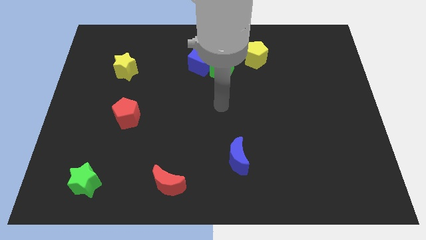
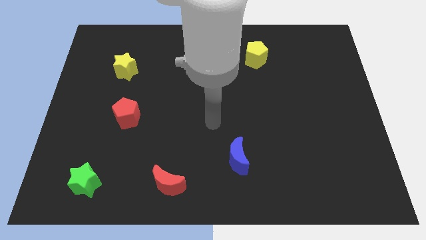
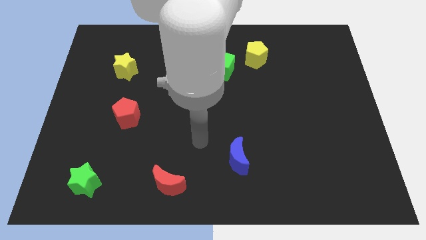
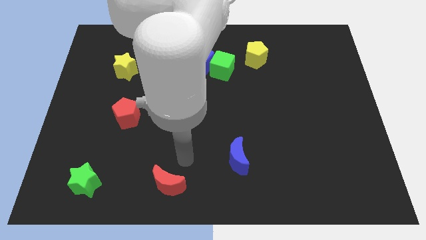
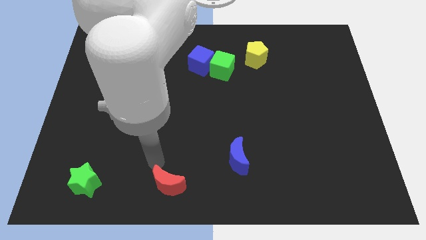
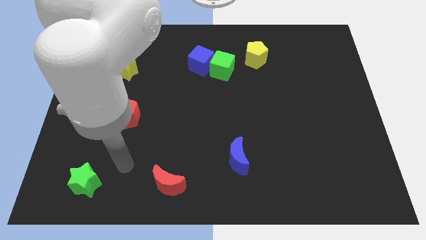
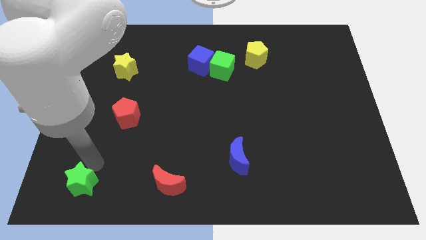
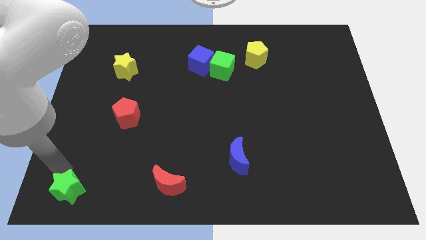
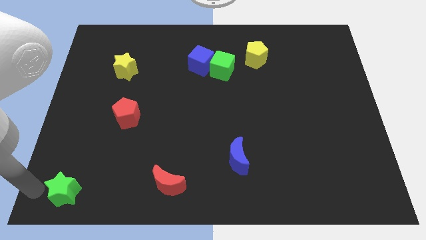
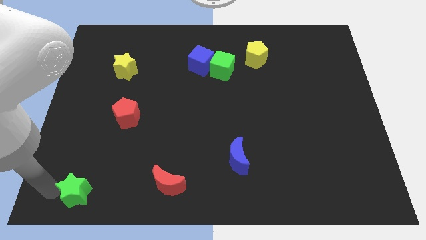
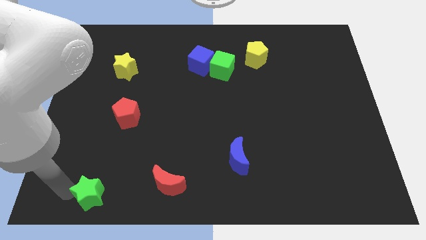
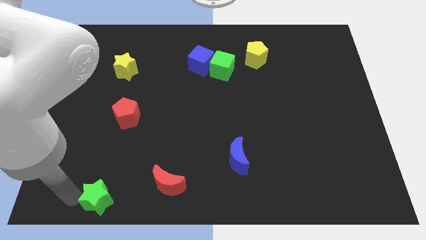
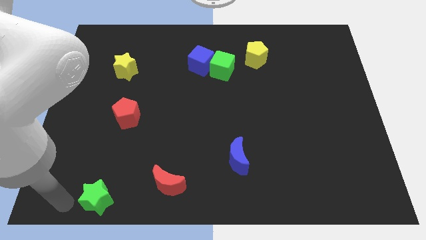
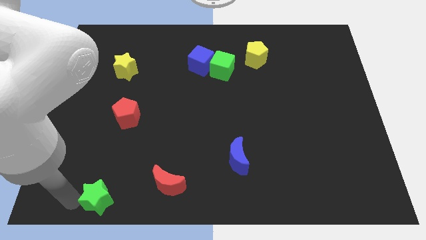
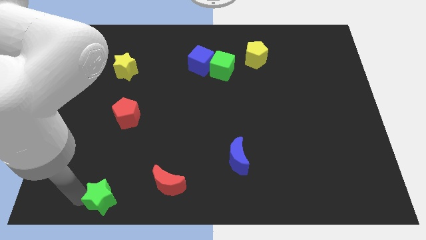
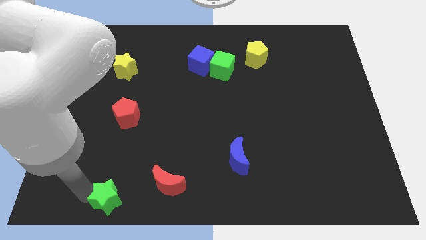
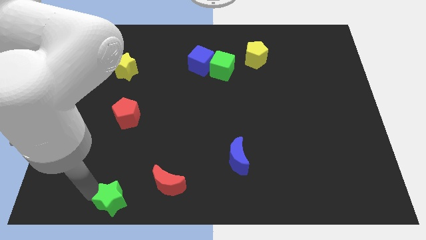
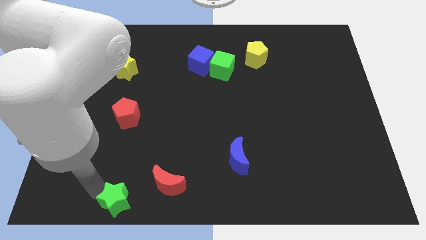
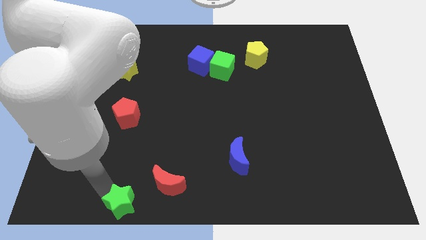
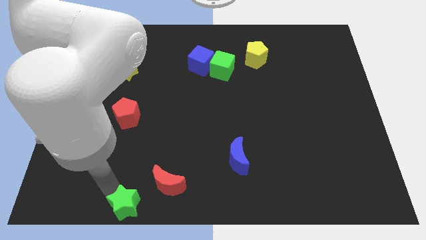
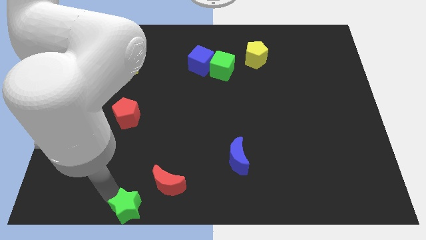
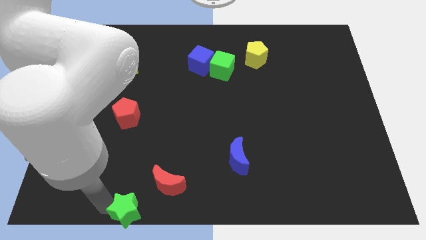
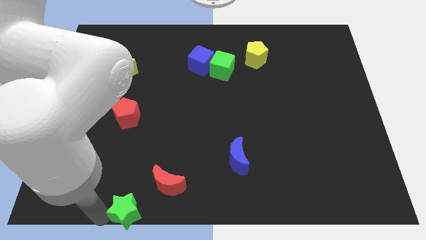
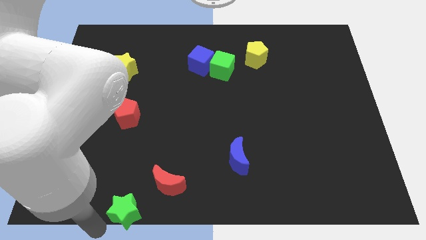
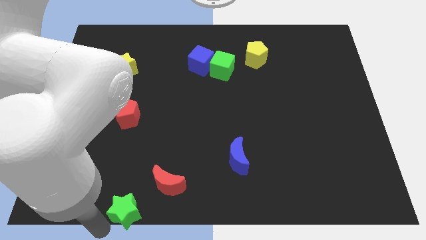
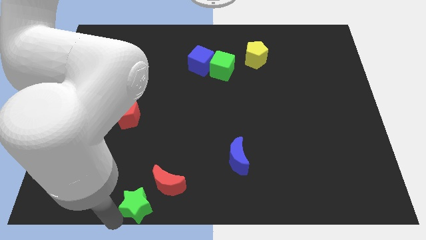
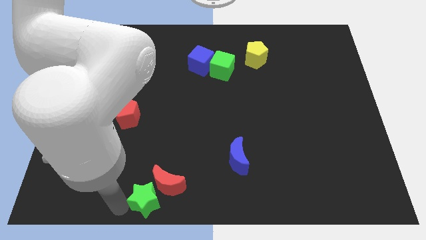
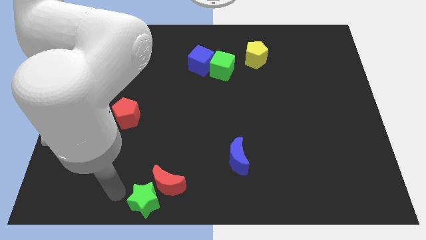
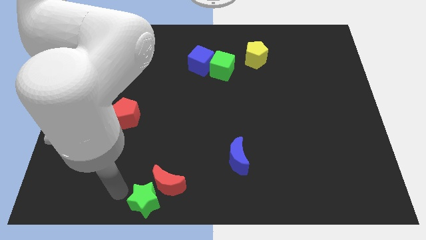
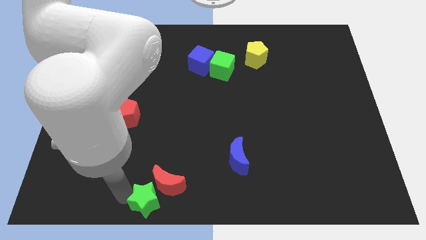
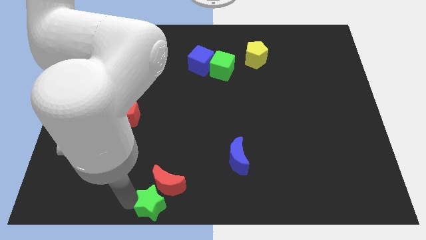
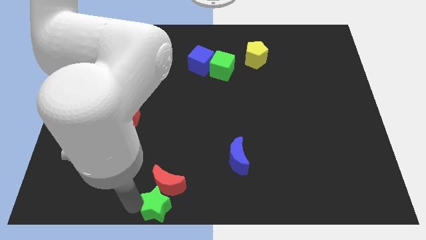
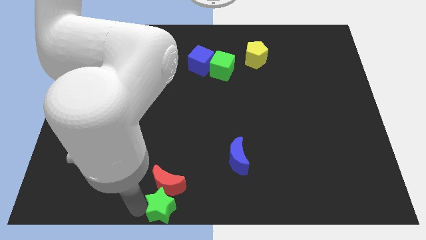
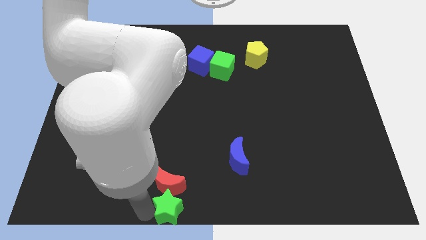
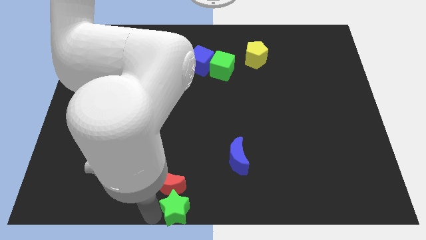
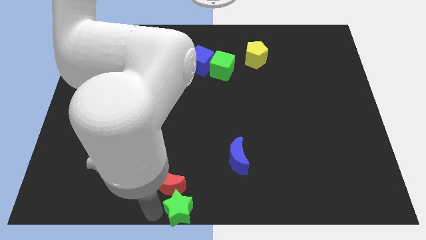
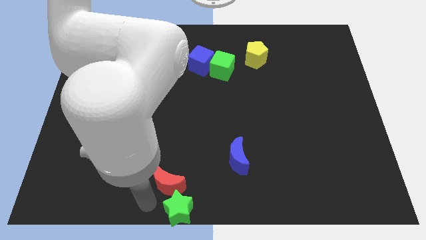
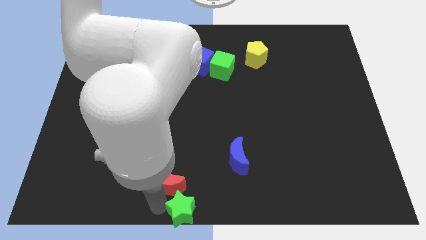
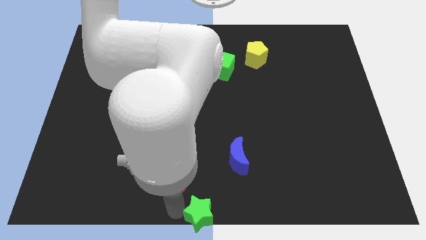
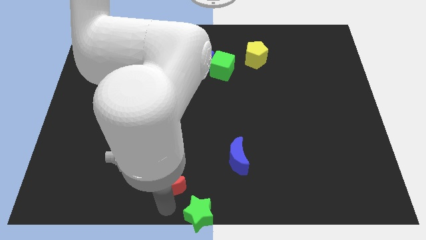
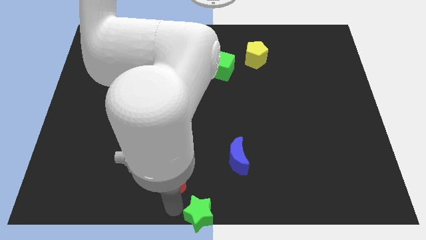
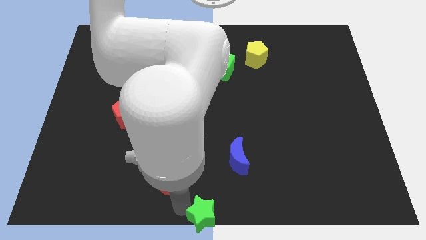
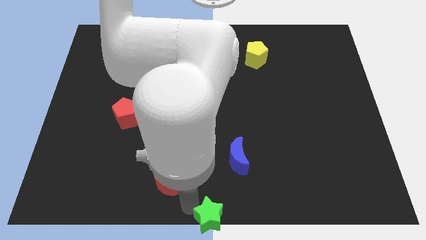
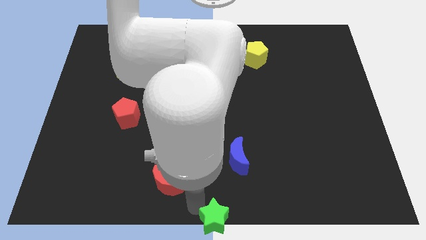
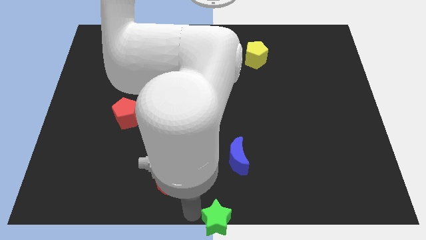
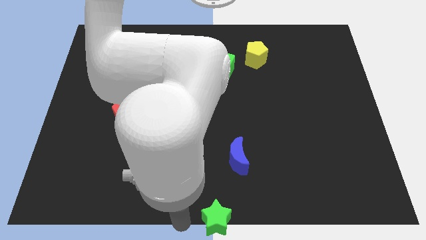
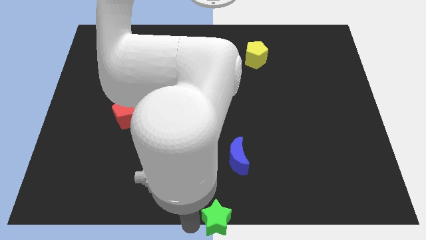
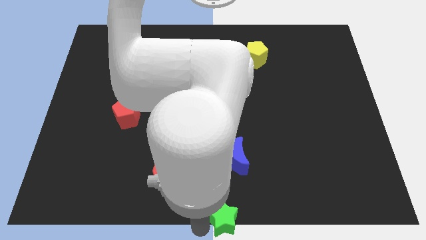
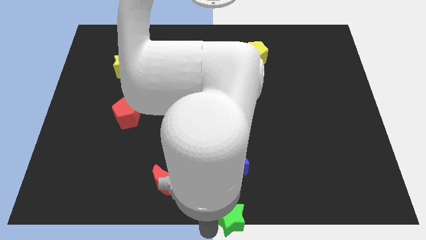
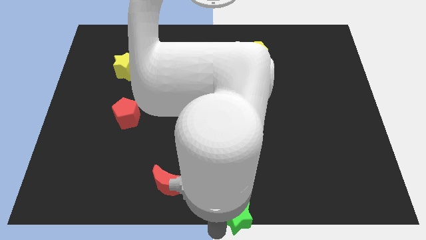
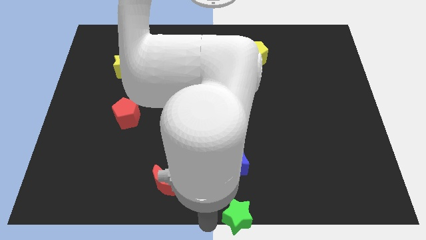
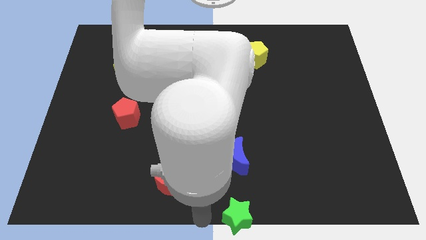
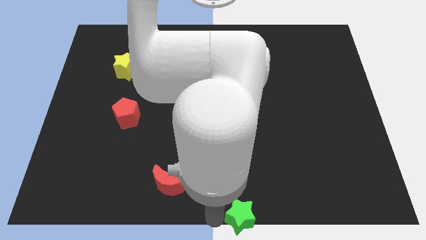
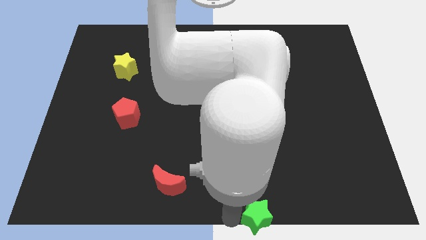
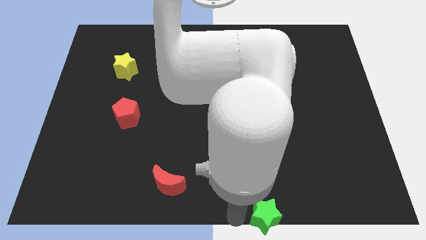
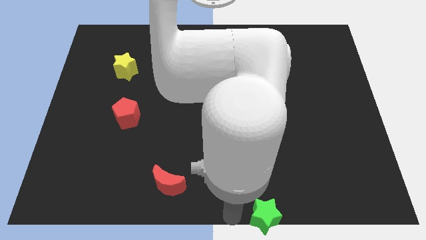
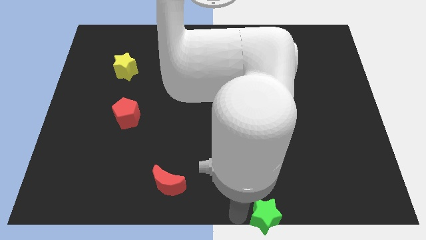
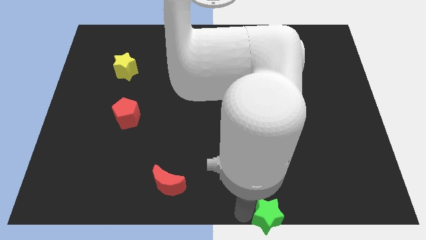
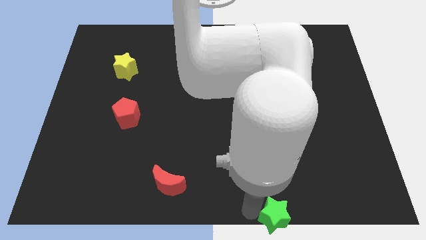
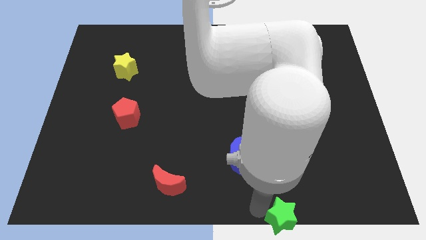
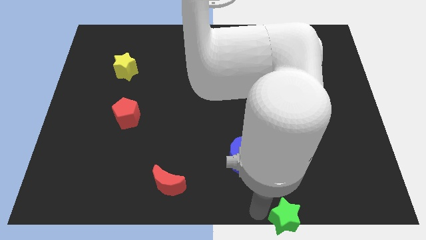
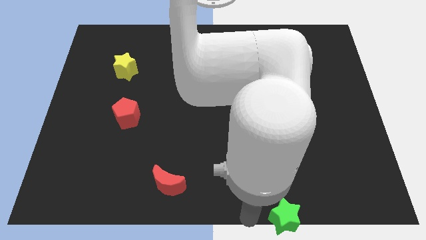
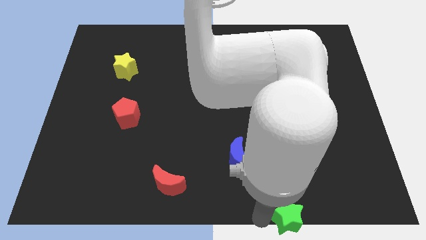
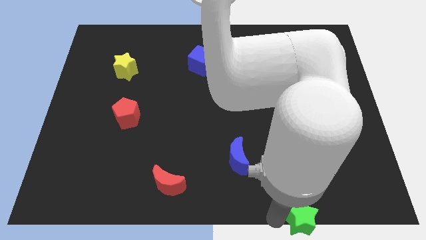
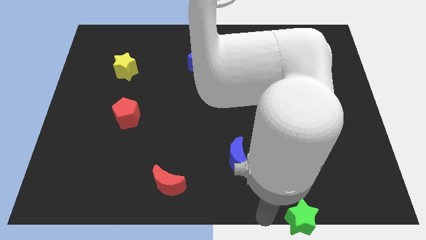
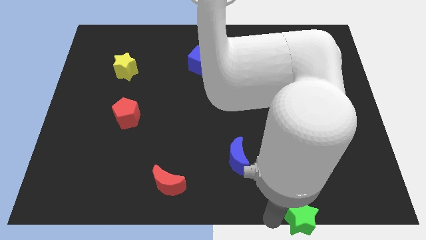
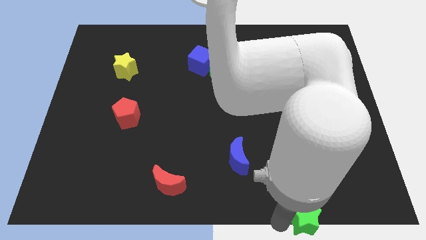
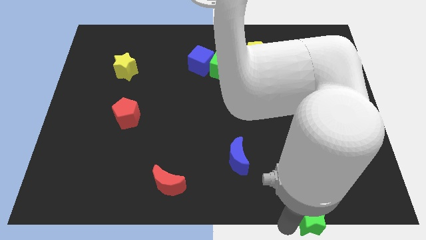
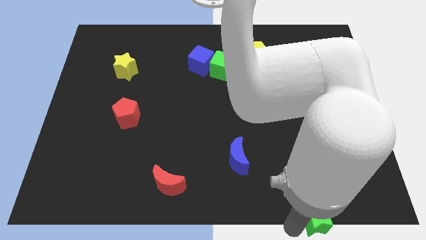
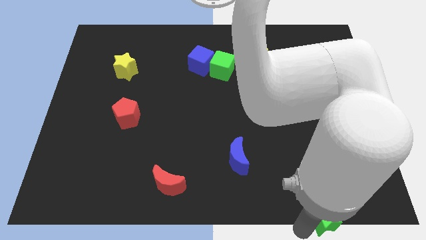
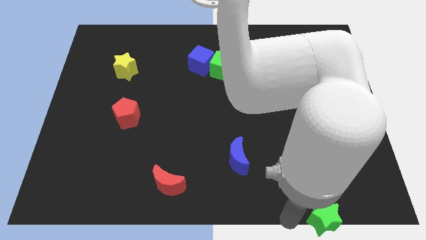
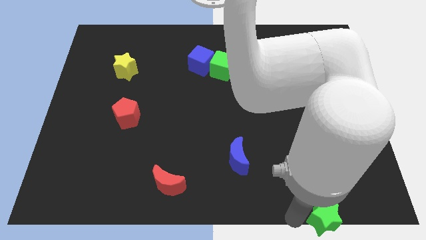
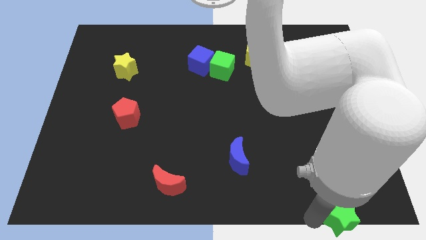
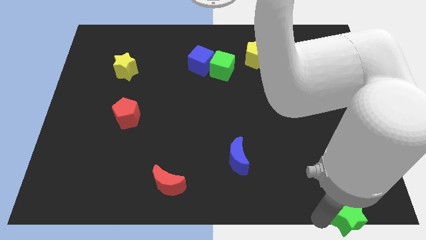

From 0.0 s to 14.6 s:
slide the green star to the bottom right corner
